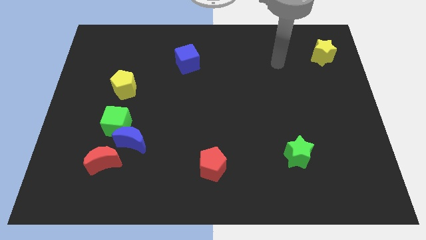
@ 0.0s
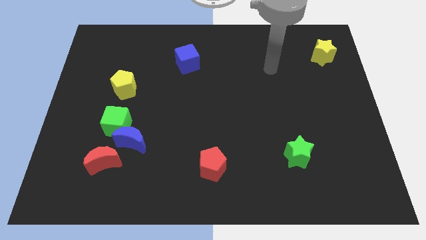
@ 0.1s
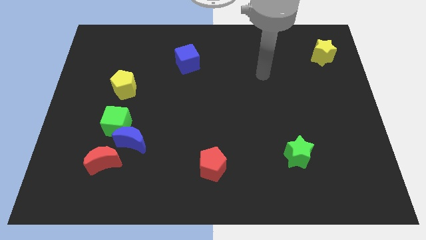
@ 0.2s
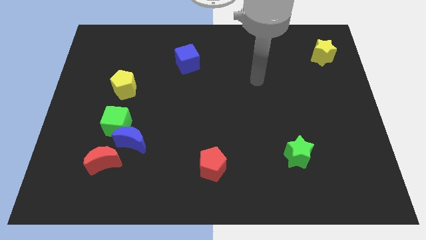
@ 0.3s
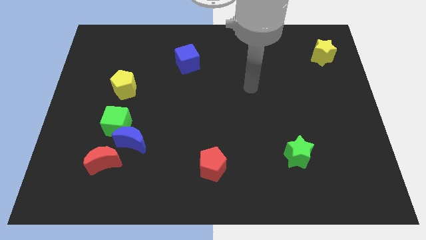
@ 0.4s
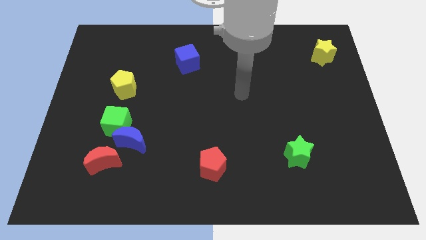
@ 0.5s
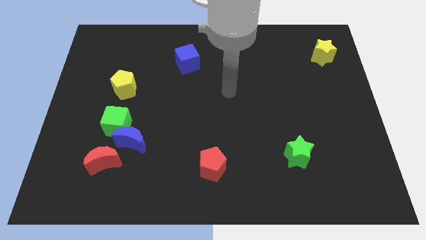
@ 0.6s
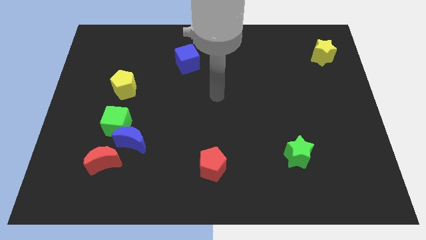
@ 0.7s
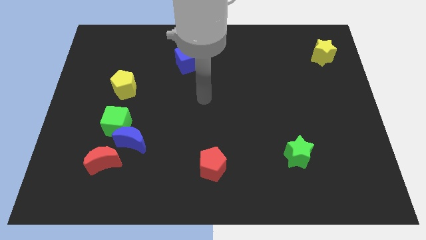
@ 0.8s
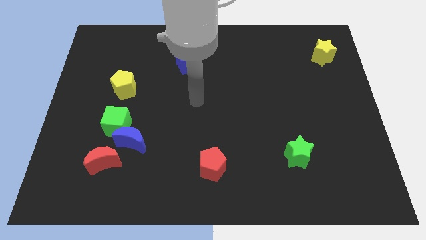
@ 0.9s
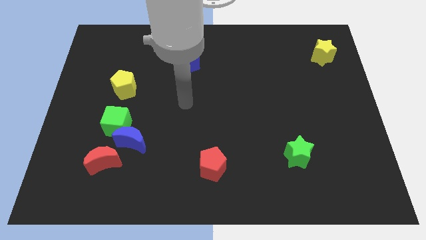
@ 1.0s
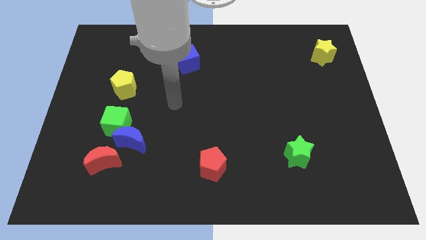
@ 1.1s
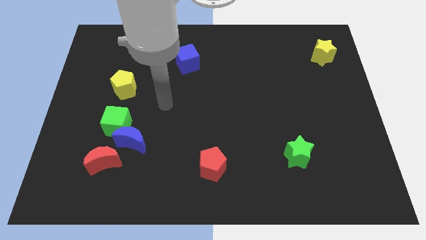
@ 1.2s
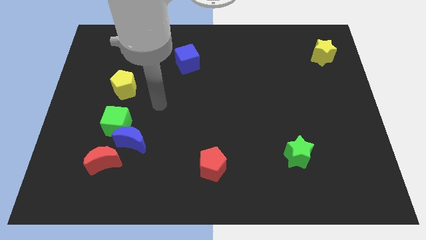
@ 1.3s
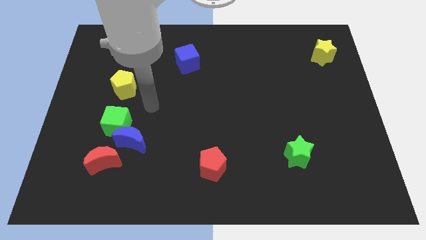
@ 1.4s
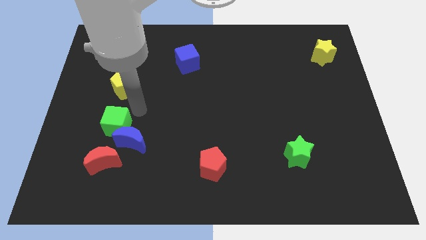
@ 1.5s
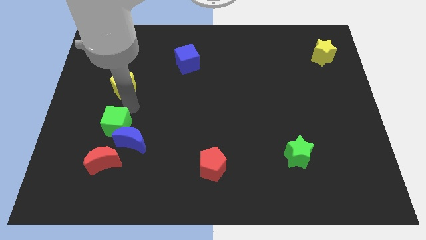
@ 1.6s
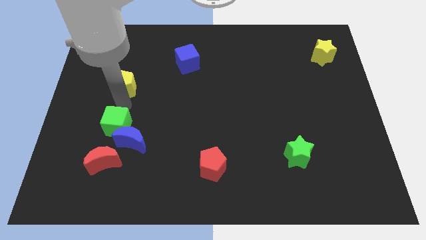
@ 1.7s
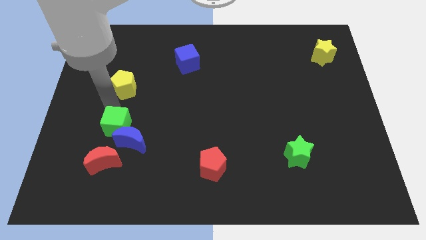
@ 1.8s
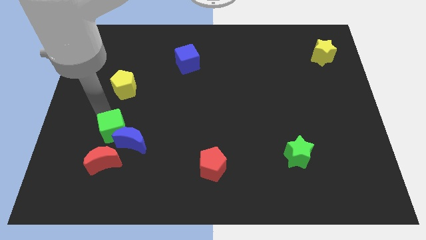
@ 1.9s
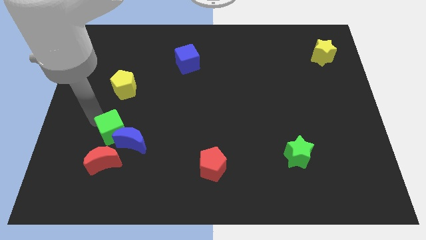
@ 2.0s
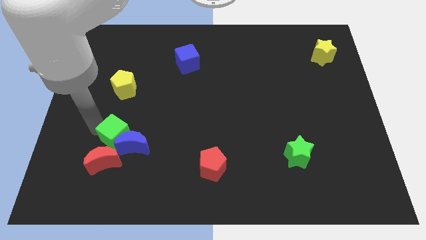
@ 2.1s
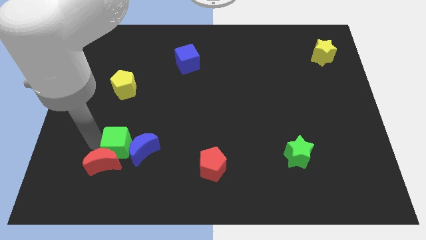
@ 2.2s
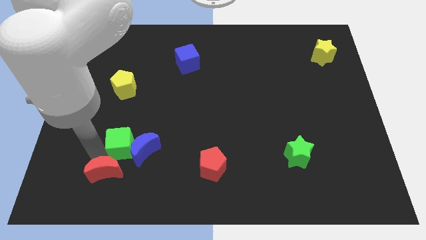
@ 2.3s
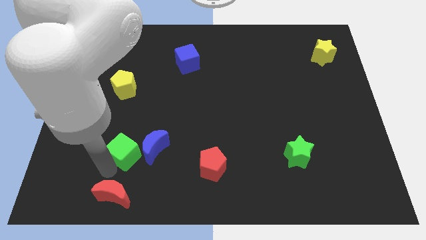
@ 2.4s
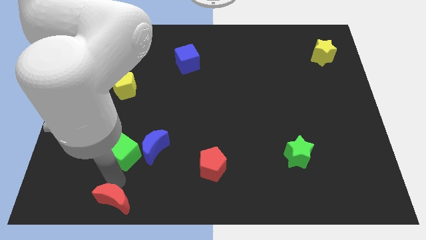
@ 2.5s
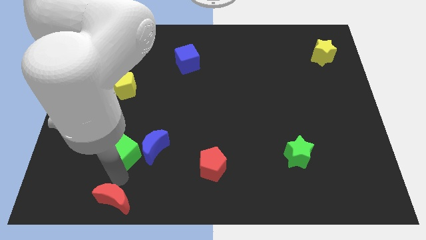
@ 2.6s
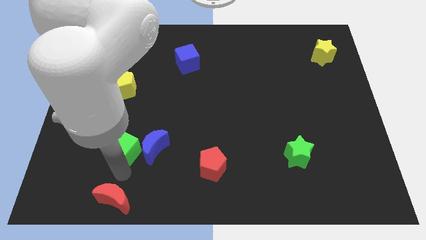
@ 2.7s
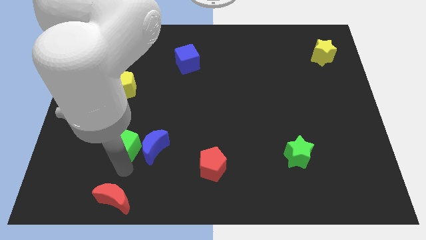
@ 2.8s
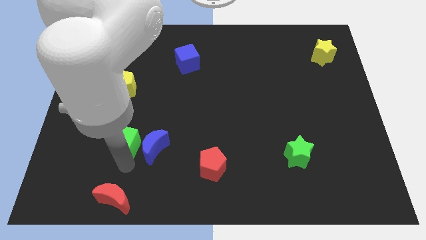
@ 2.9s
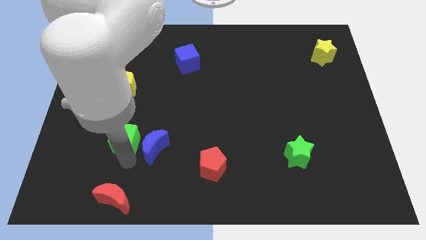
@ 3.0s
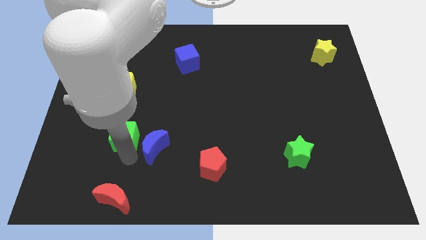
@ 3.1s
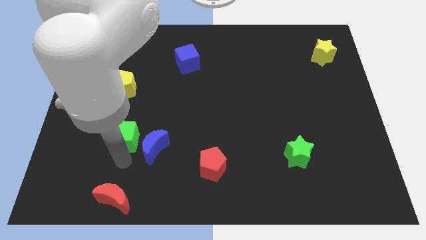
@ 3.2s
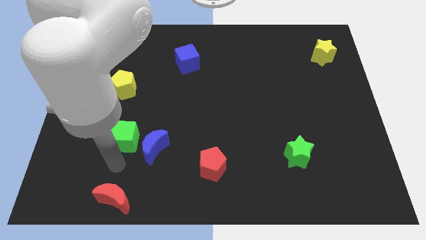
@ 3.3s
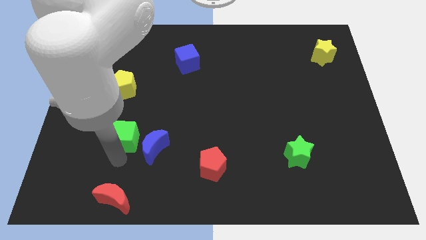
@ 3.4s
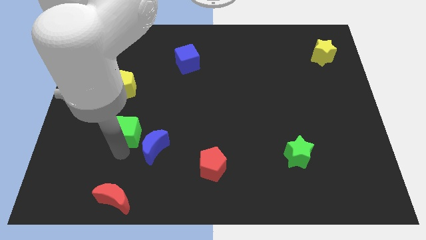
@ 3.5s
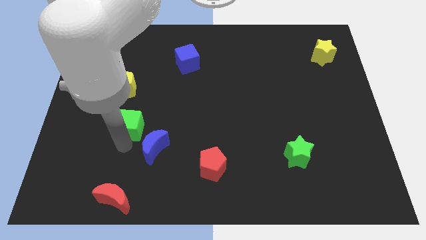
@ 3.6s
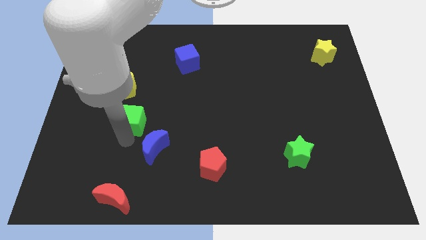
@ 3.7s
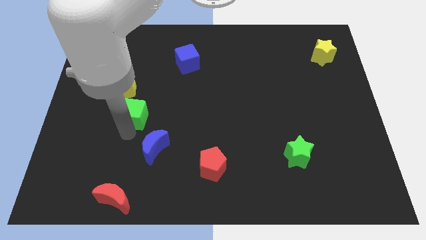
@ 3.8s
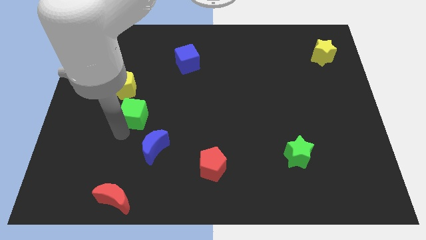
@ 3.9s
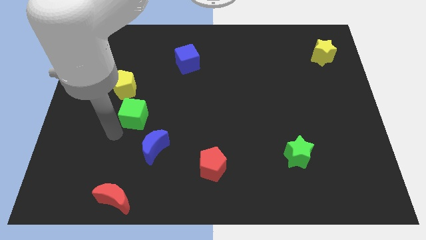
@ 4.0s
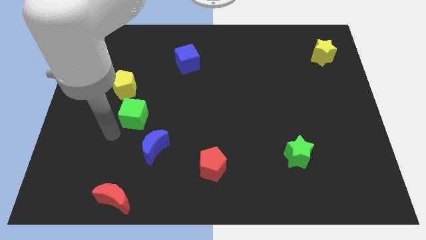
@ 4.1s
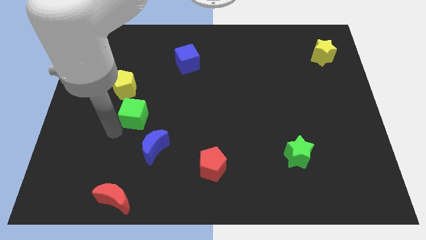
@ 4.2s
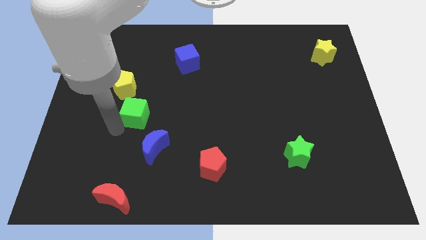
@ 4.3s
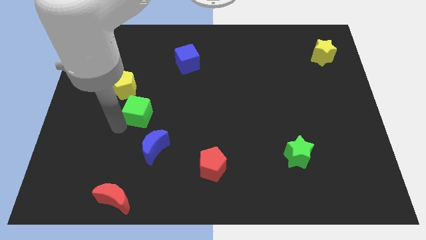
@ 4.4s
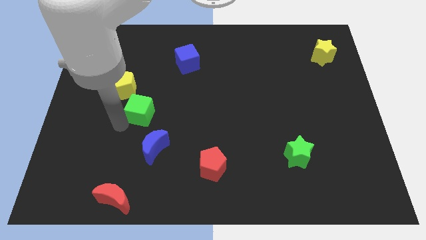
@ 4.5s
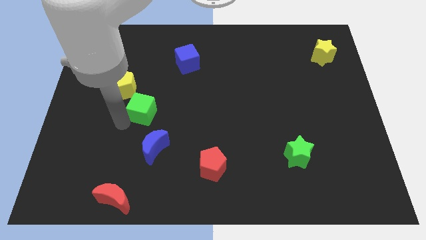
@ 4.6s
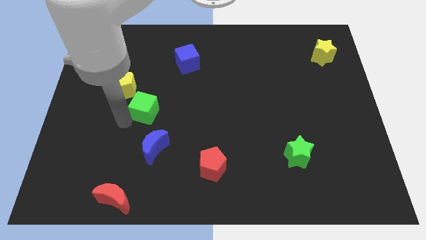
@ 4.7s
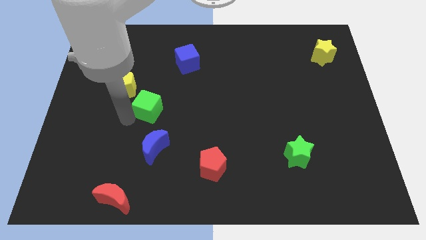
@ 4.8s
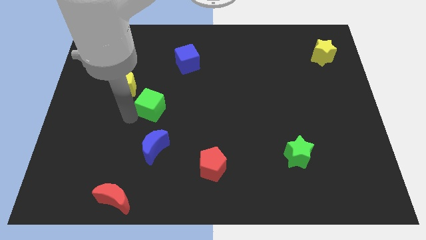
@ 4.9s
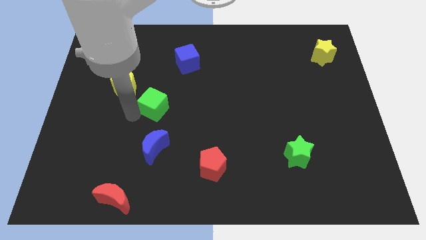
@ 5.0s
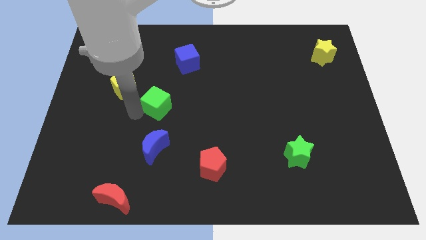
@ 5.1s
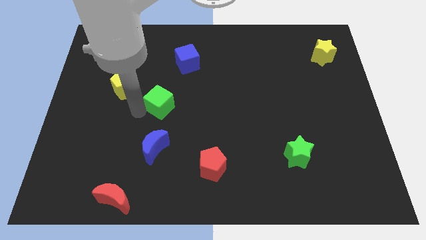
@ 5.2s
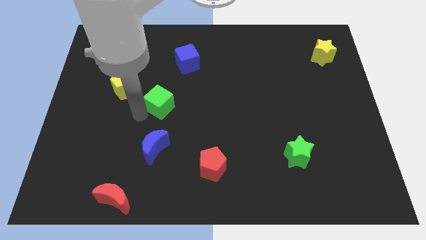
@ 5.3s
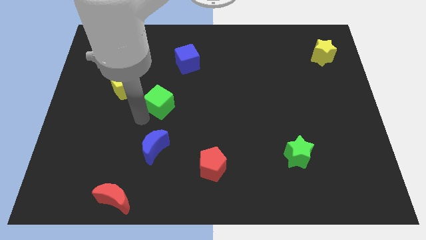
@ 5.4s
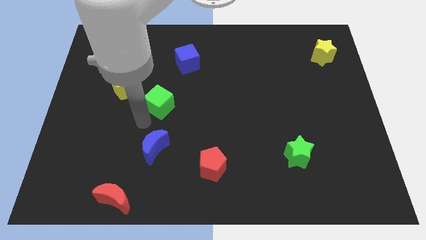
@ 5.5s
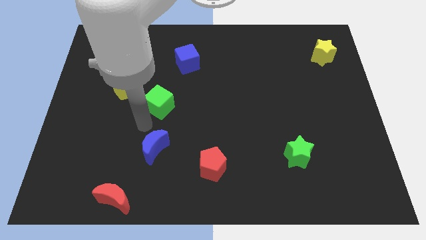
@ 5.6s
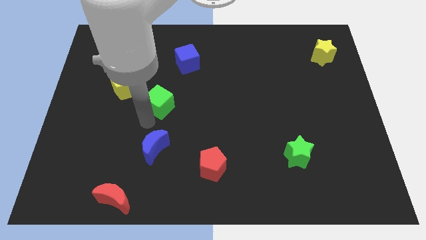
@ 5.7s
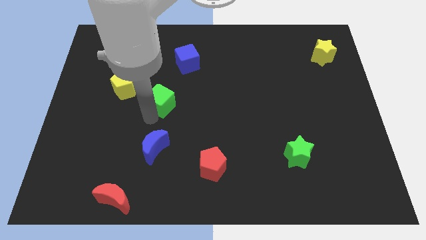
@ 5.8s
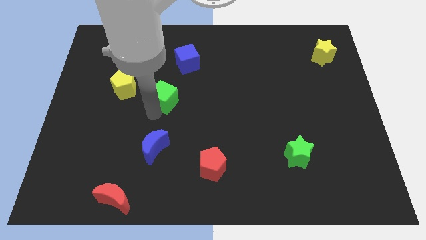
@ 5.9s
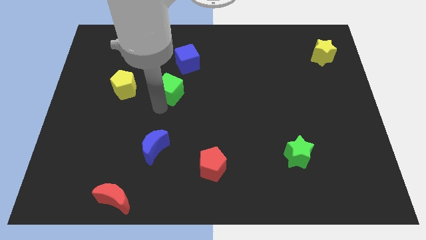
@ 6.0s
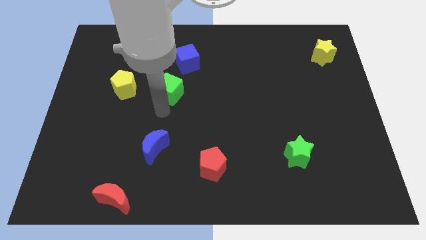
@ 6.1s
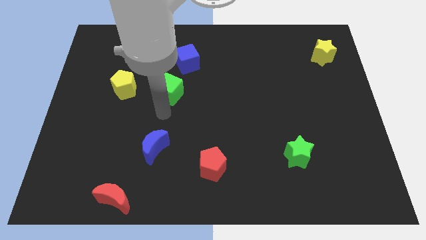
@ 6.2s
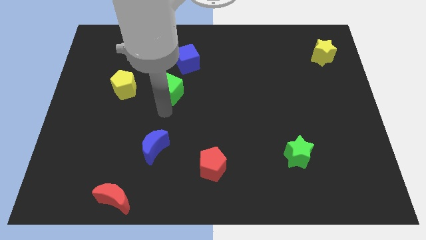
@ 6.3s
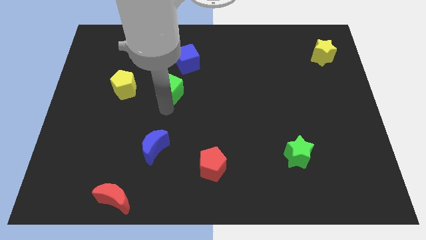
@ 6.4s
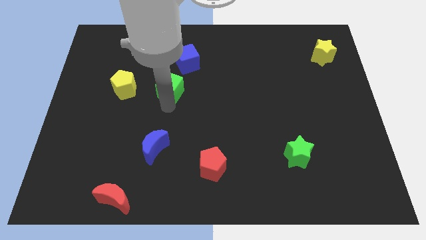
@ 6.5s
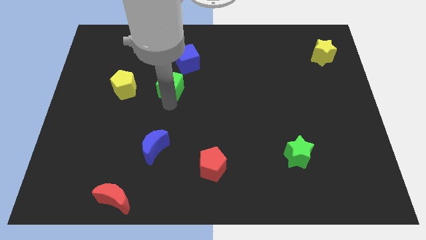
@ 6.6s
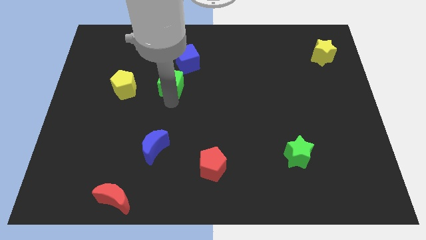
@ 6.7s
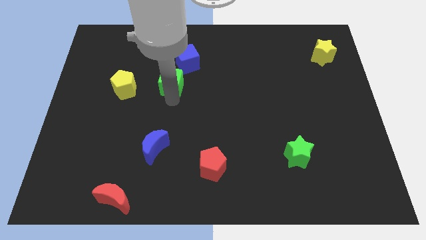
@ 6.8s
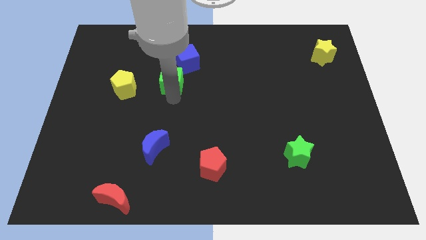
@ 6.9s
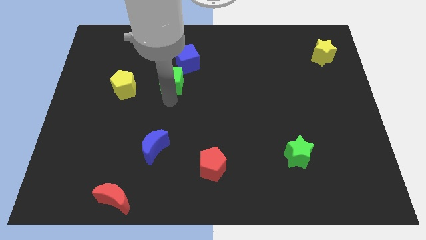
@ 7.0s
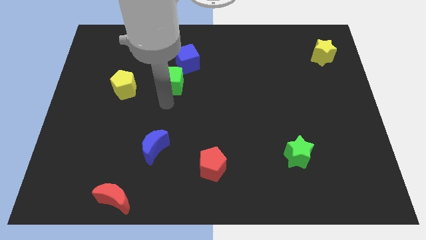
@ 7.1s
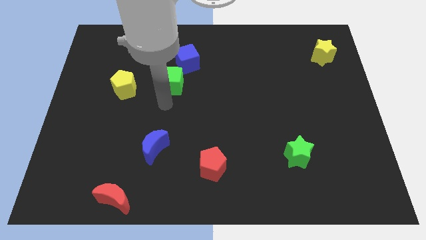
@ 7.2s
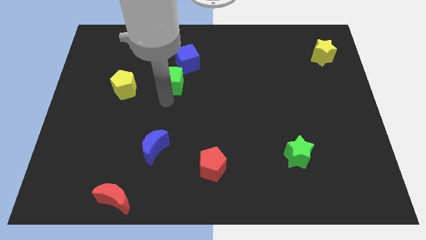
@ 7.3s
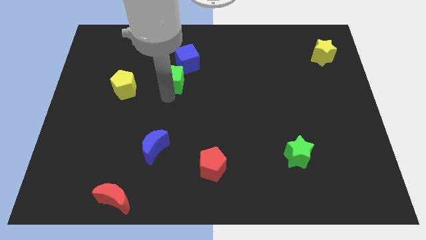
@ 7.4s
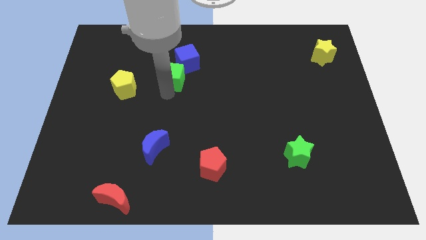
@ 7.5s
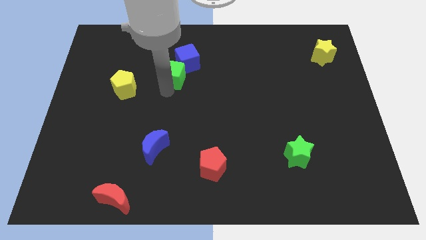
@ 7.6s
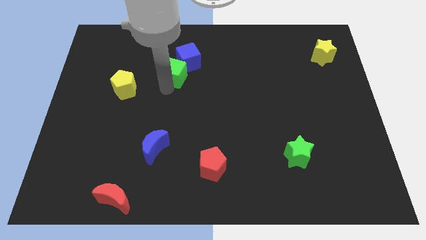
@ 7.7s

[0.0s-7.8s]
move the green cube towards the blue cube
